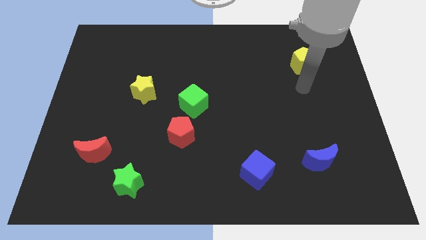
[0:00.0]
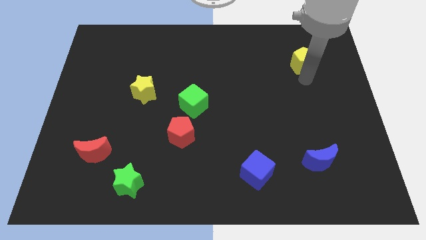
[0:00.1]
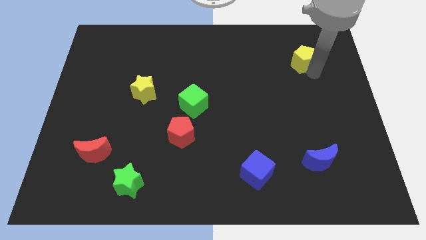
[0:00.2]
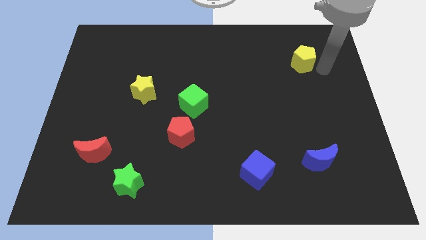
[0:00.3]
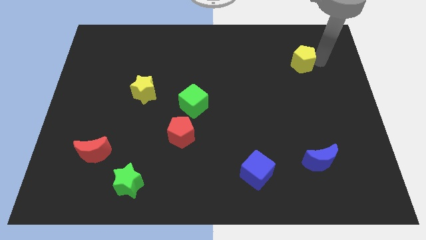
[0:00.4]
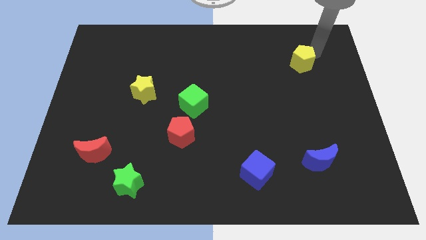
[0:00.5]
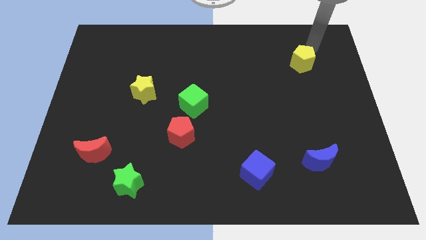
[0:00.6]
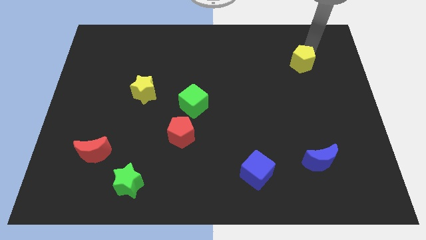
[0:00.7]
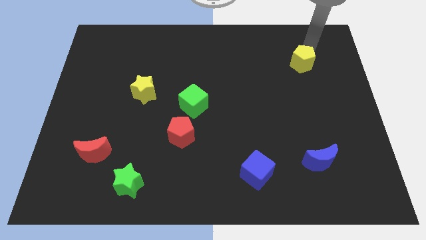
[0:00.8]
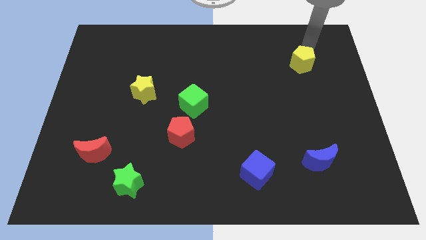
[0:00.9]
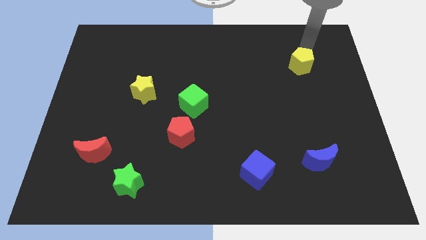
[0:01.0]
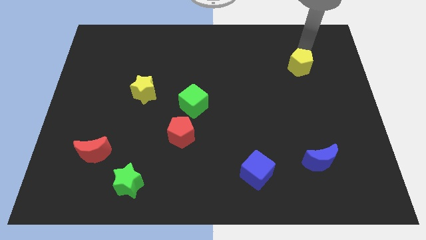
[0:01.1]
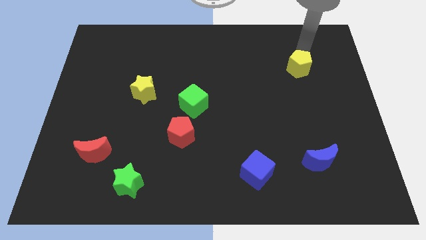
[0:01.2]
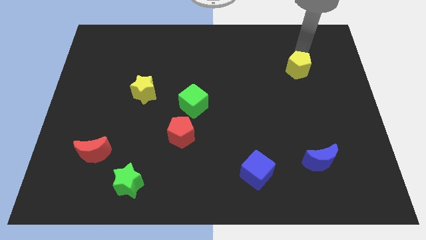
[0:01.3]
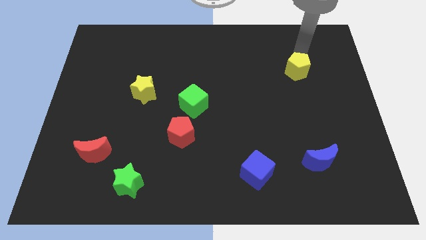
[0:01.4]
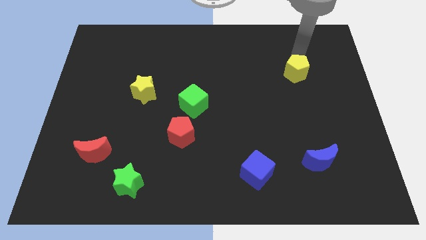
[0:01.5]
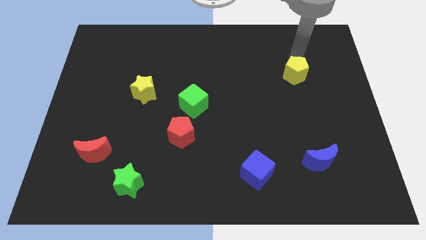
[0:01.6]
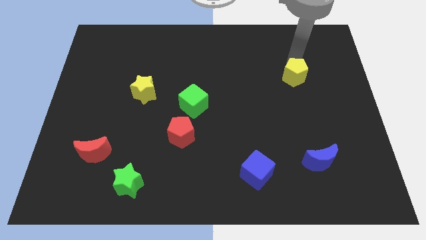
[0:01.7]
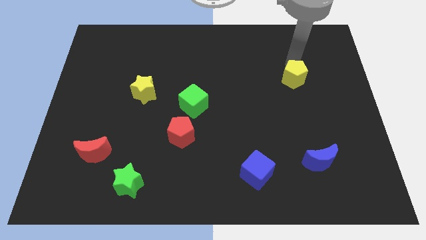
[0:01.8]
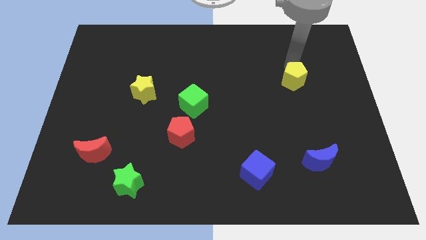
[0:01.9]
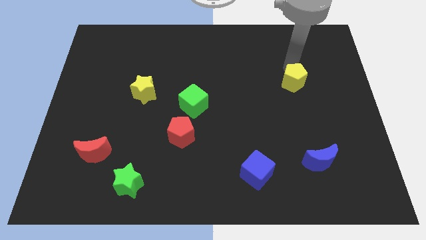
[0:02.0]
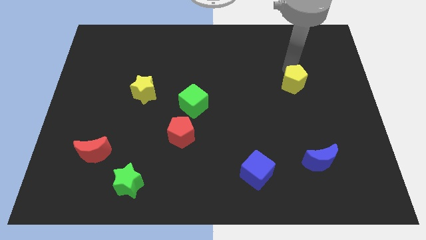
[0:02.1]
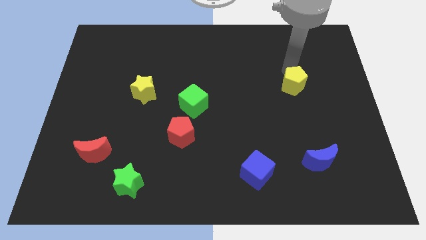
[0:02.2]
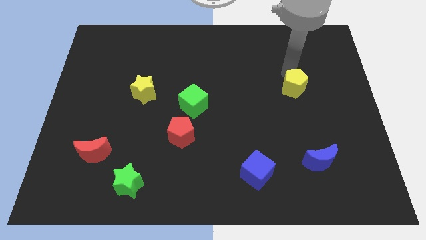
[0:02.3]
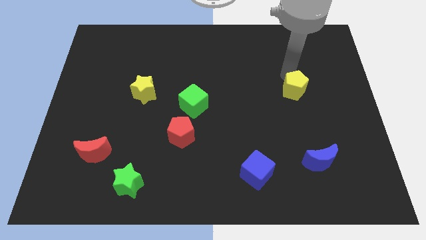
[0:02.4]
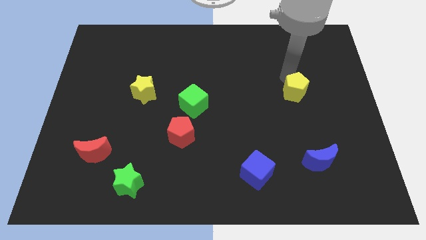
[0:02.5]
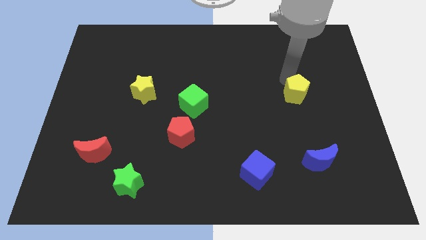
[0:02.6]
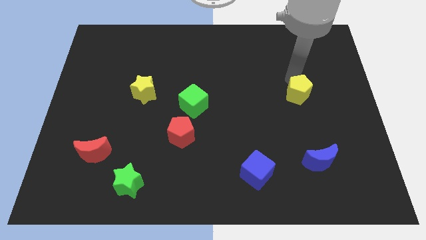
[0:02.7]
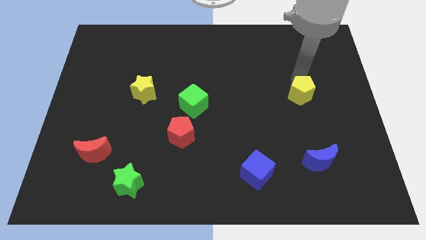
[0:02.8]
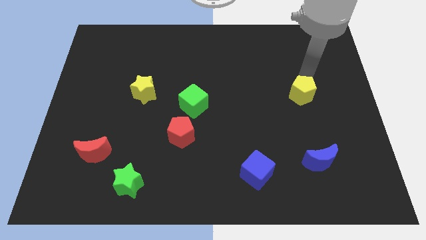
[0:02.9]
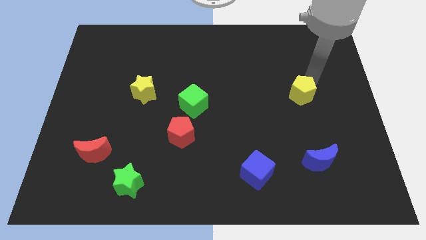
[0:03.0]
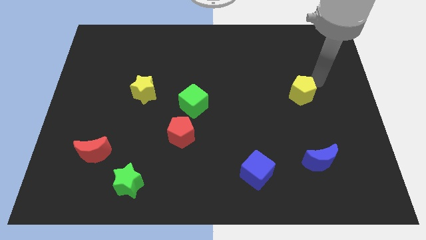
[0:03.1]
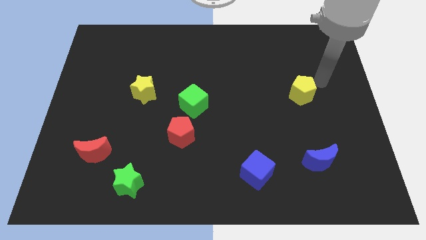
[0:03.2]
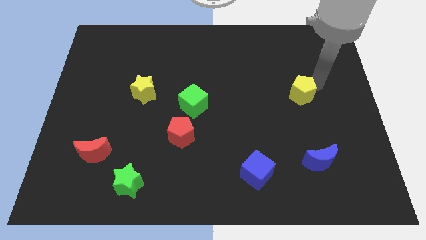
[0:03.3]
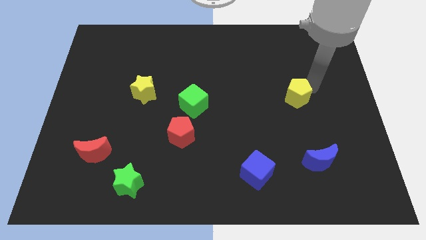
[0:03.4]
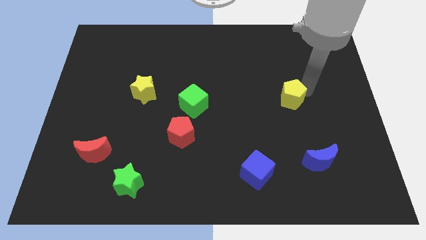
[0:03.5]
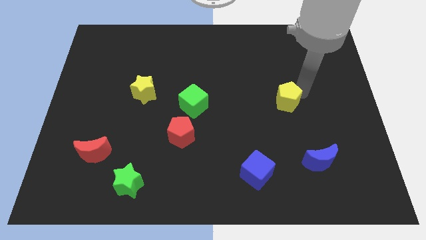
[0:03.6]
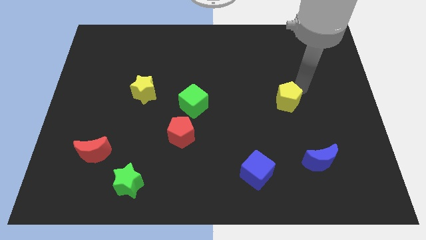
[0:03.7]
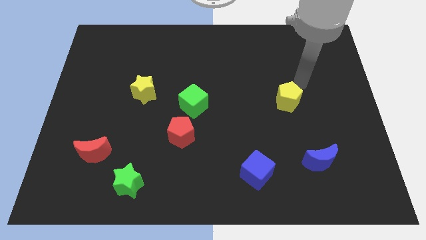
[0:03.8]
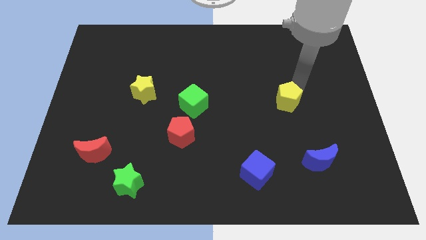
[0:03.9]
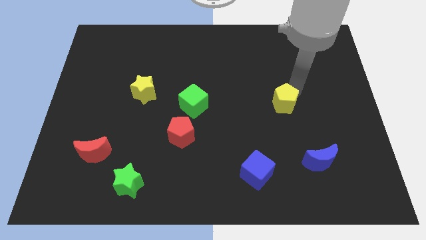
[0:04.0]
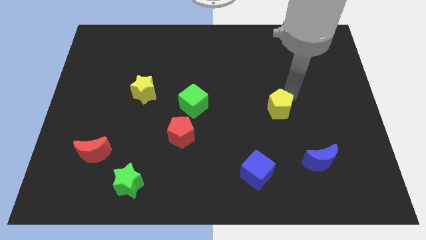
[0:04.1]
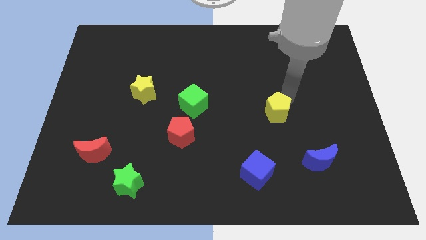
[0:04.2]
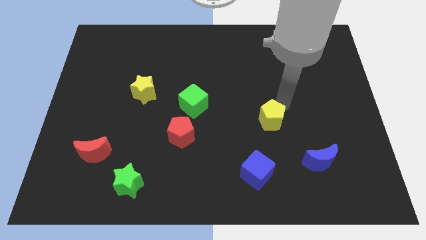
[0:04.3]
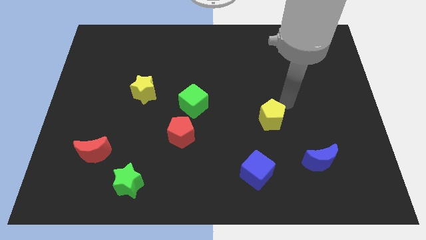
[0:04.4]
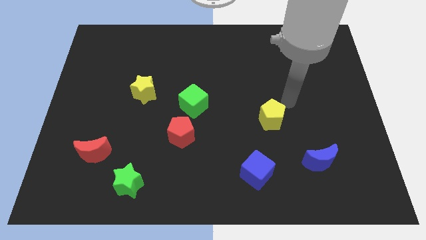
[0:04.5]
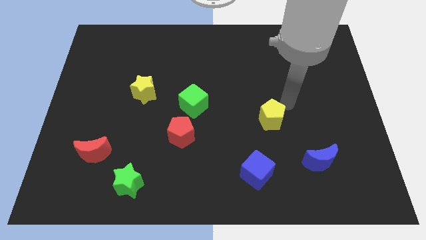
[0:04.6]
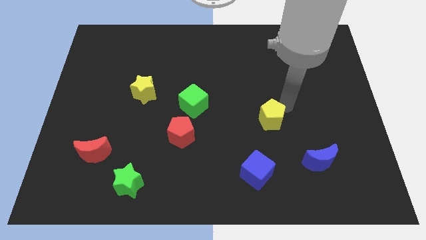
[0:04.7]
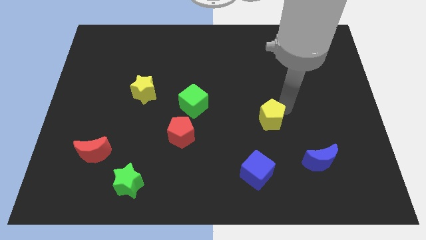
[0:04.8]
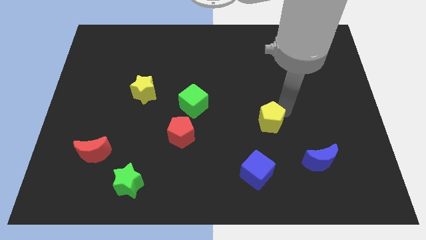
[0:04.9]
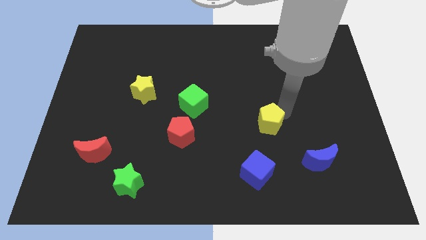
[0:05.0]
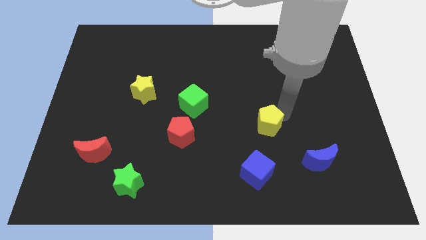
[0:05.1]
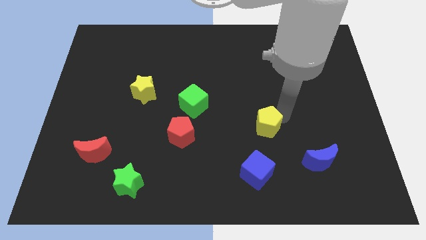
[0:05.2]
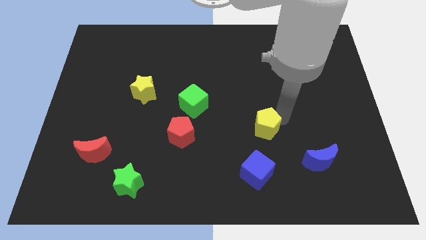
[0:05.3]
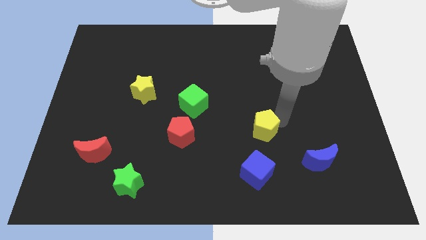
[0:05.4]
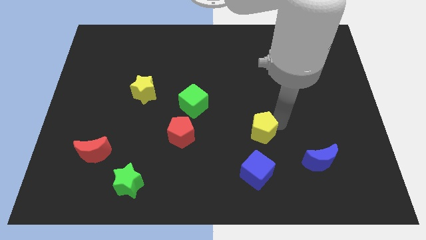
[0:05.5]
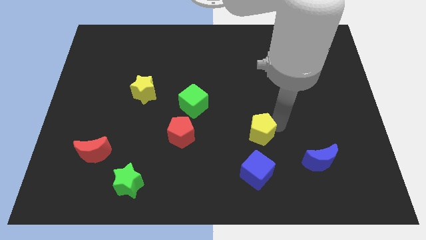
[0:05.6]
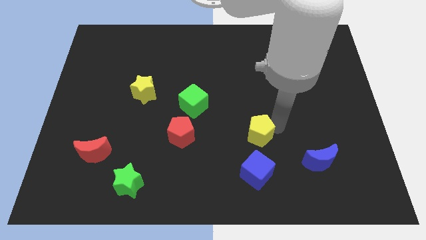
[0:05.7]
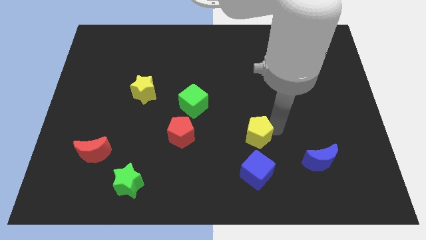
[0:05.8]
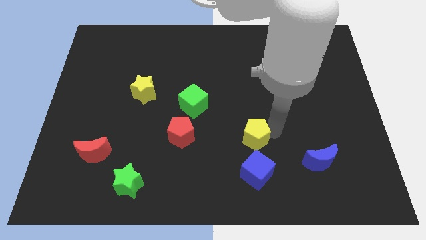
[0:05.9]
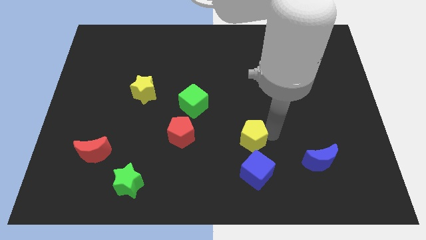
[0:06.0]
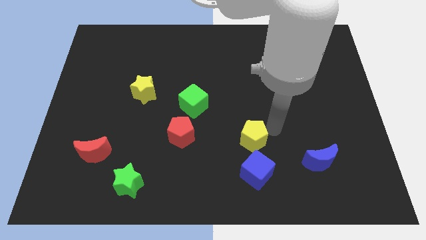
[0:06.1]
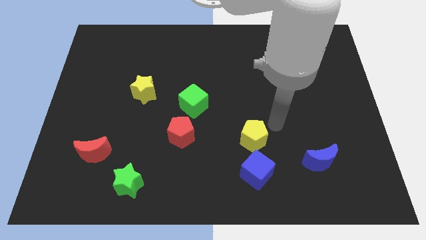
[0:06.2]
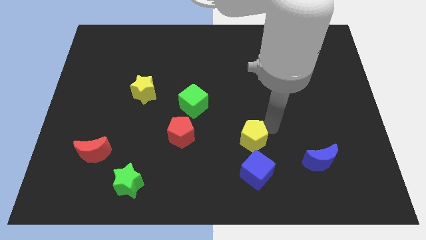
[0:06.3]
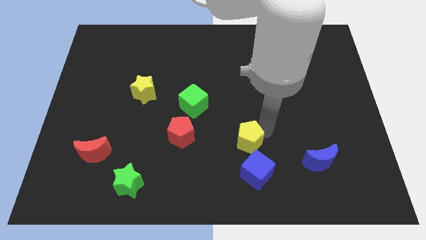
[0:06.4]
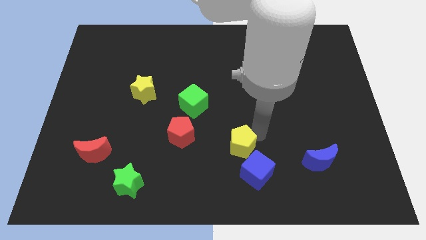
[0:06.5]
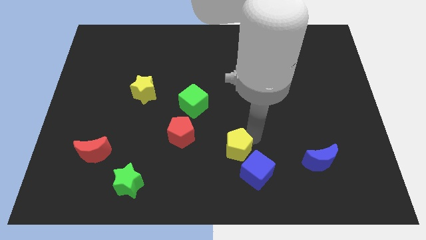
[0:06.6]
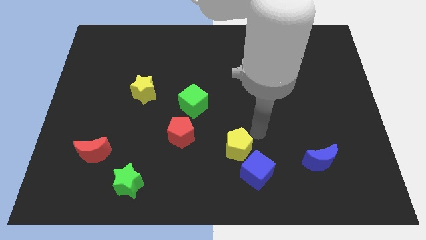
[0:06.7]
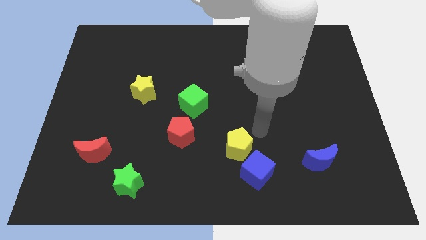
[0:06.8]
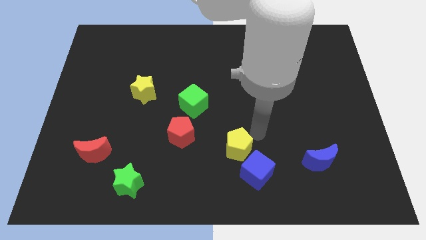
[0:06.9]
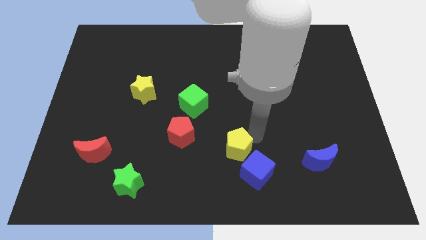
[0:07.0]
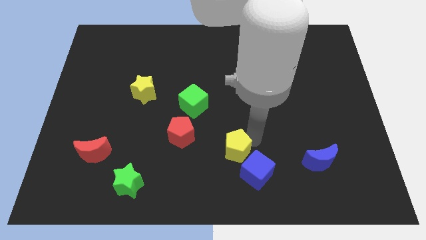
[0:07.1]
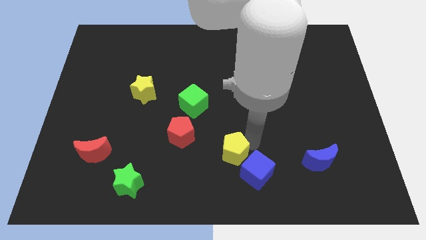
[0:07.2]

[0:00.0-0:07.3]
move the yellow pentagon to the left side of the blue cube
